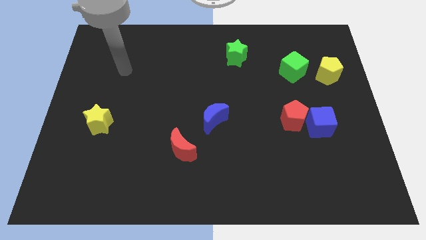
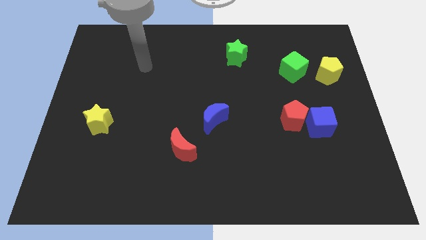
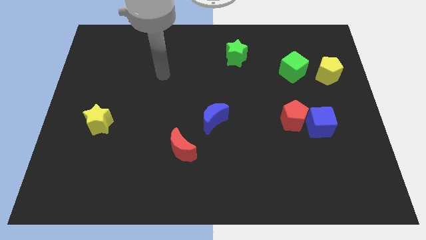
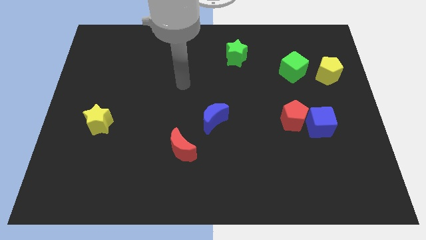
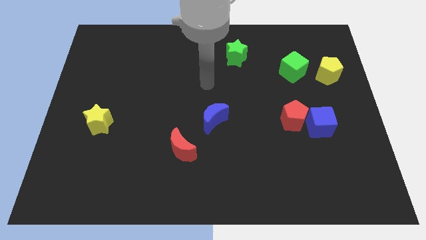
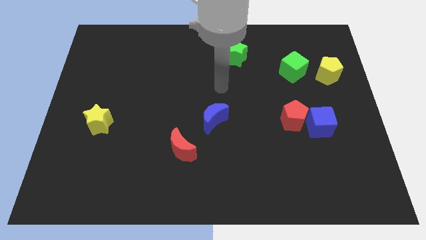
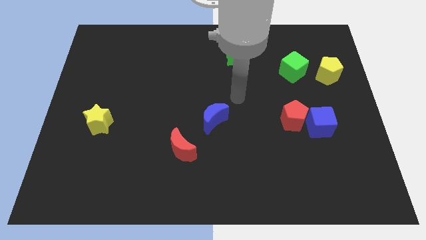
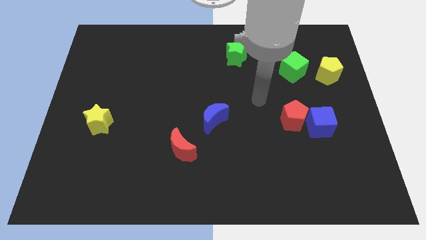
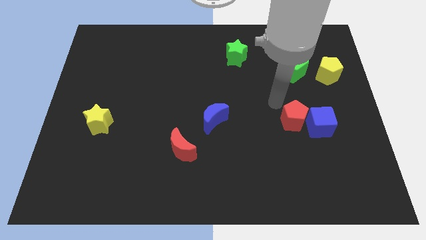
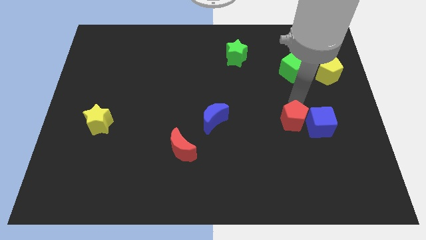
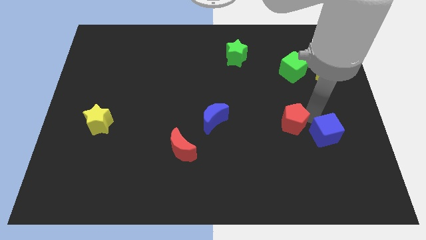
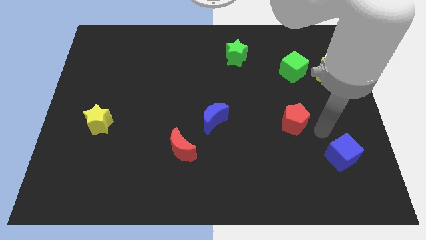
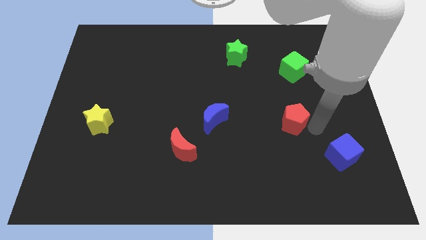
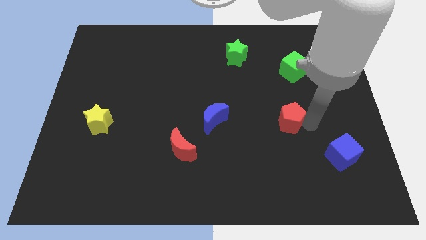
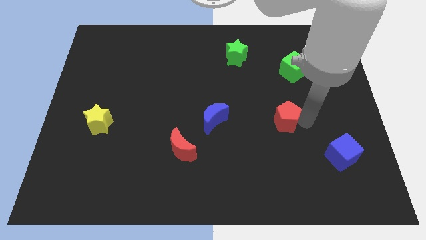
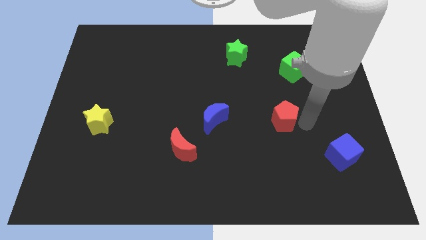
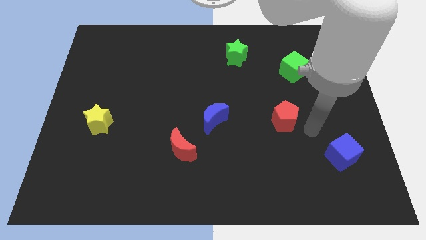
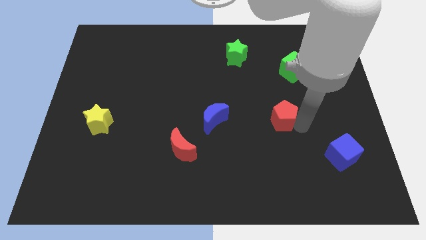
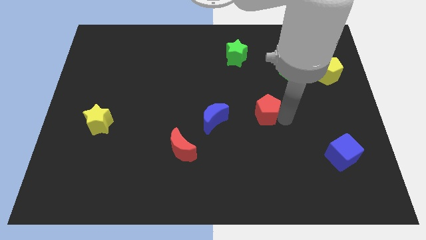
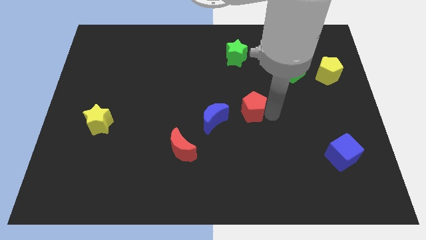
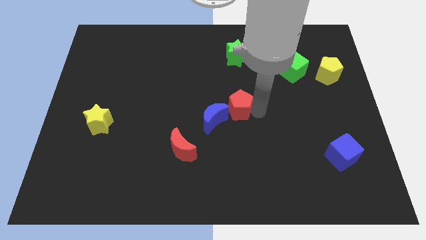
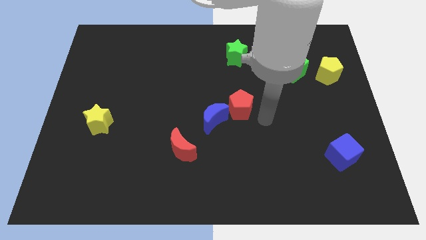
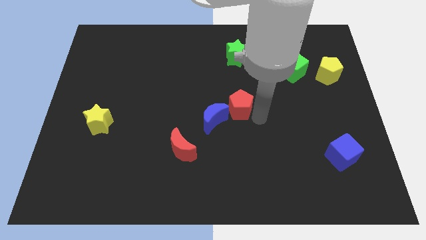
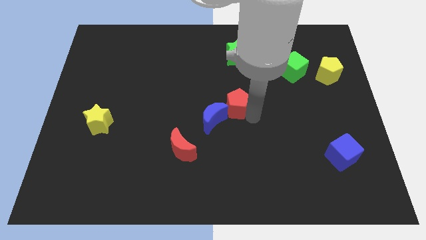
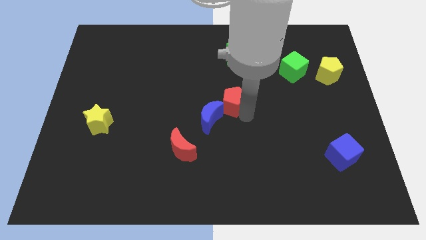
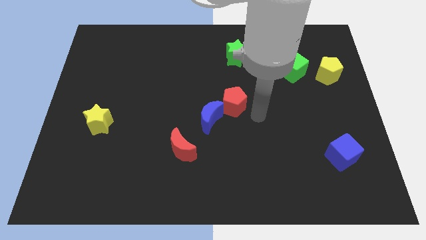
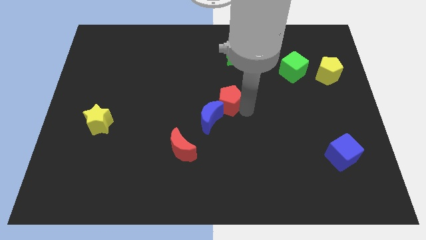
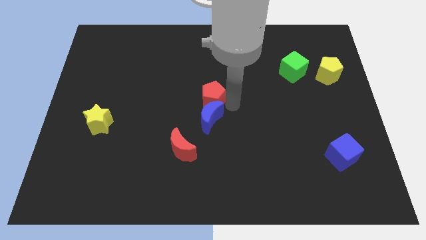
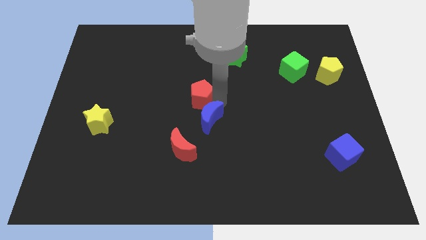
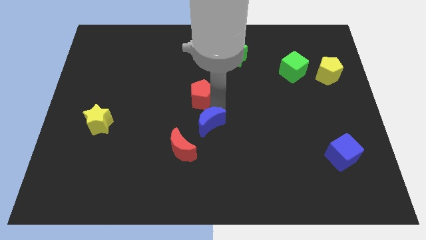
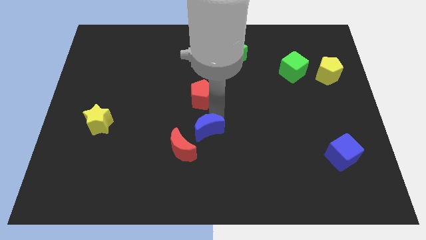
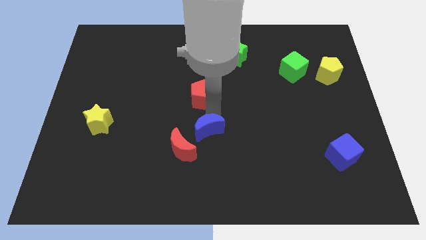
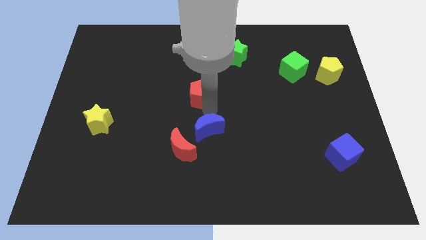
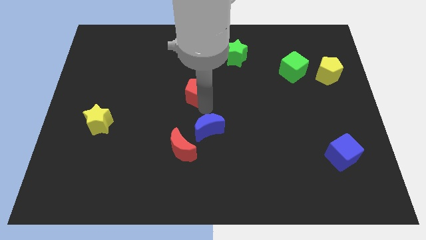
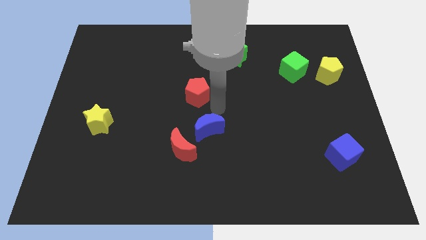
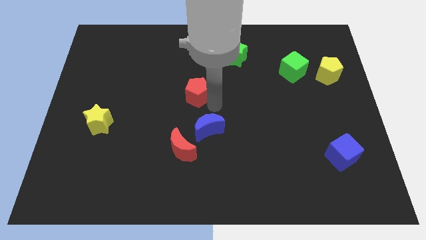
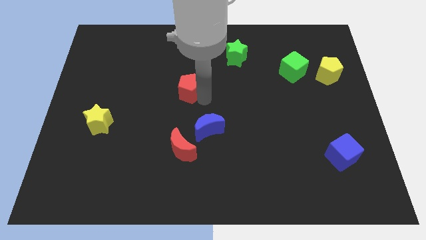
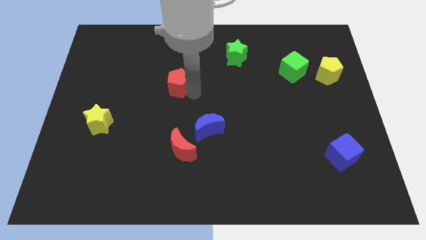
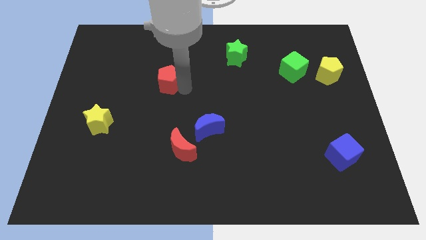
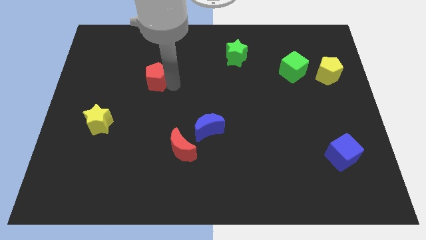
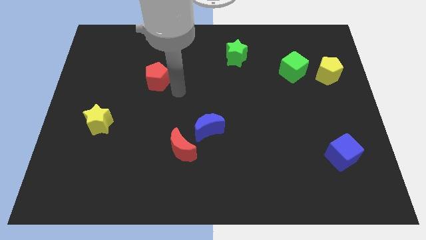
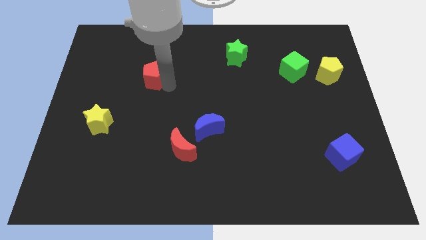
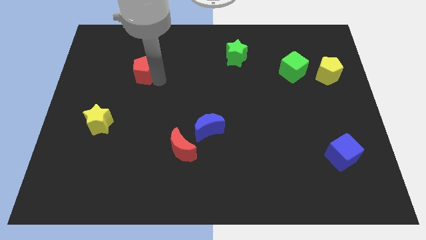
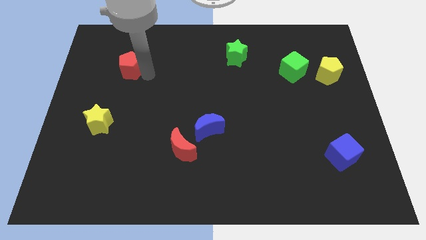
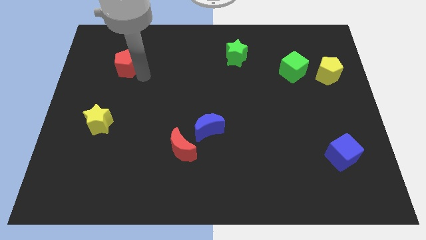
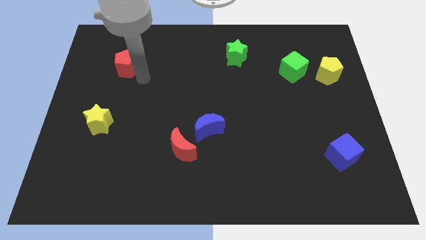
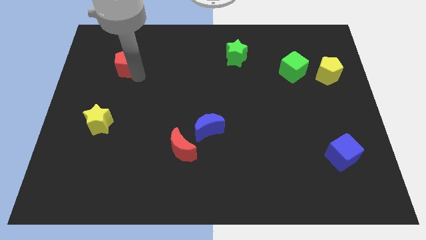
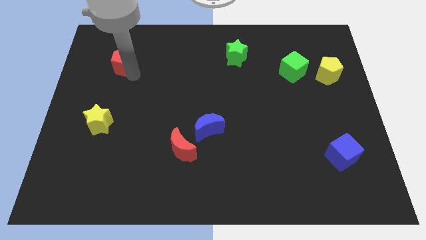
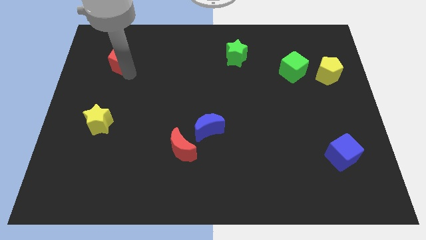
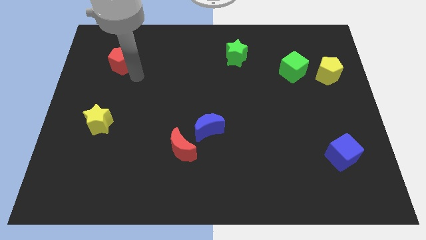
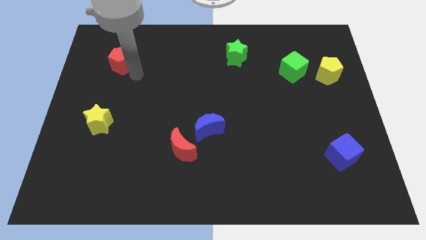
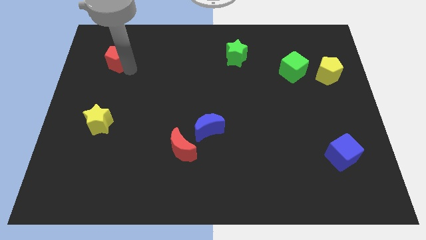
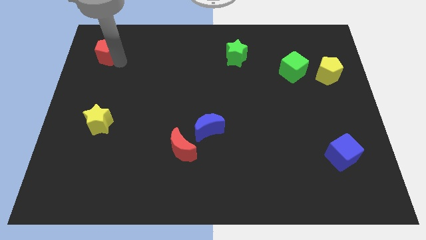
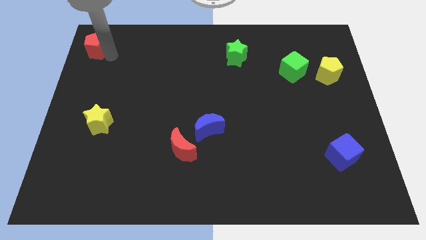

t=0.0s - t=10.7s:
slide the red pentagon to the top left corner

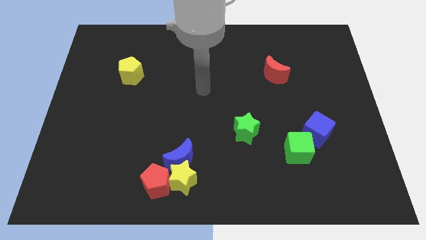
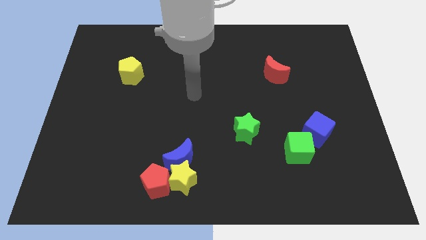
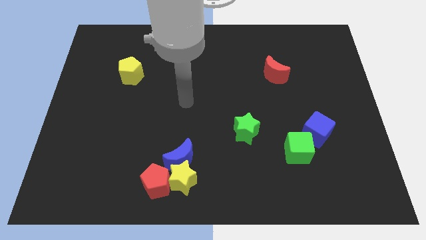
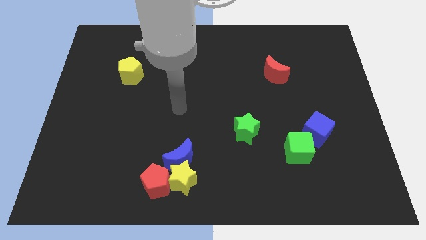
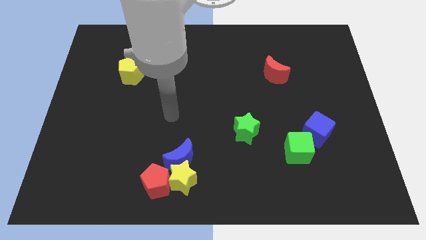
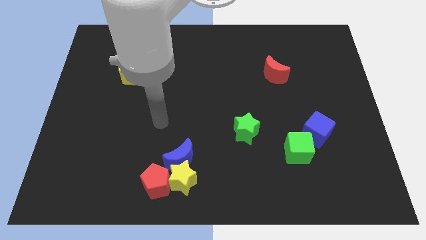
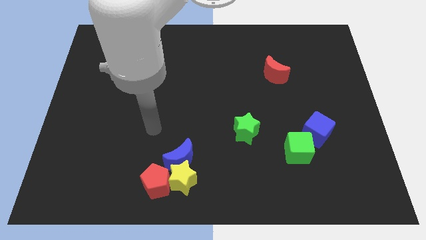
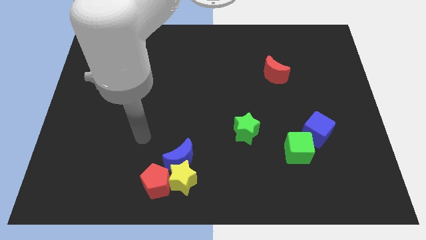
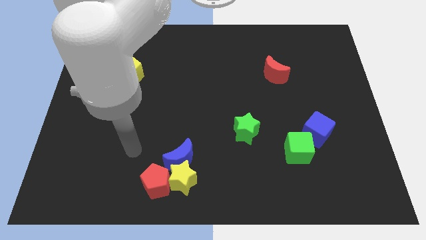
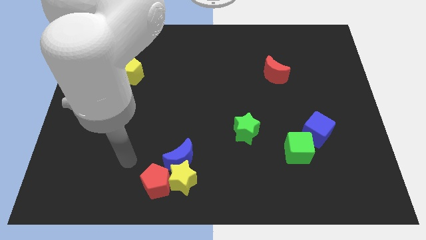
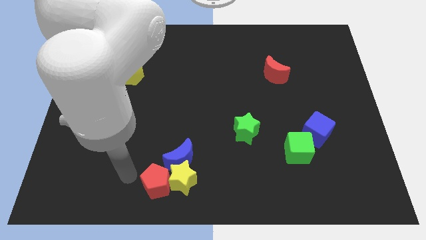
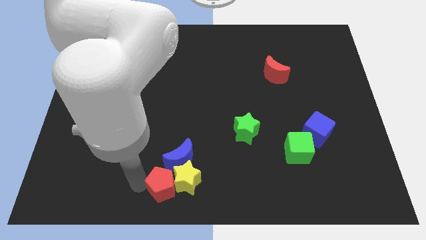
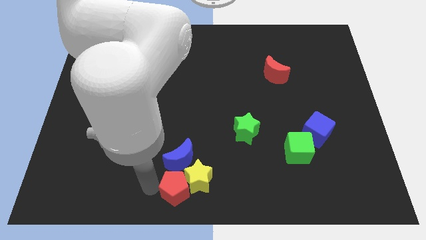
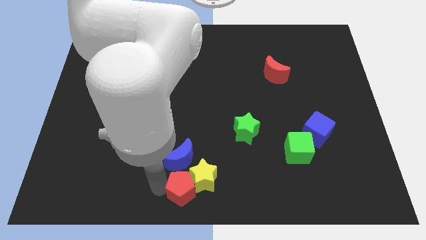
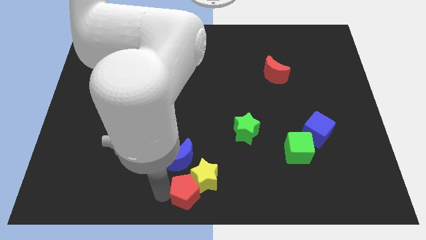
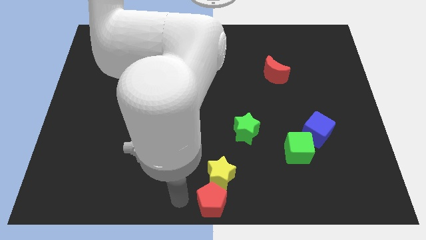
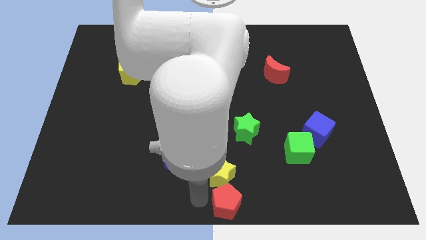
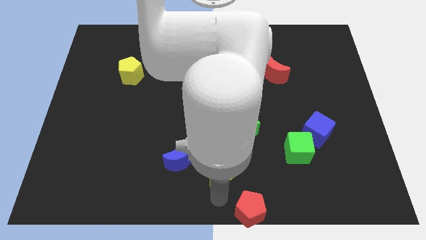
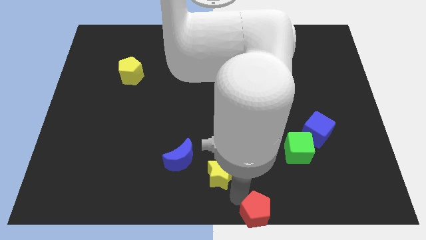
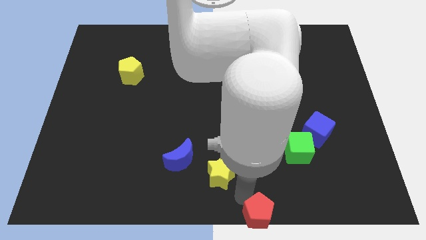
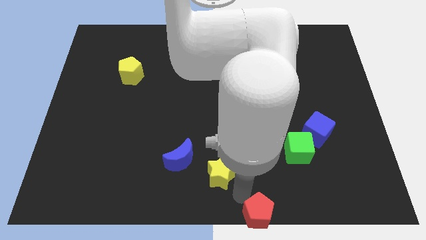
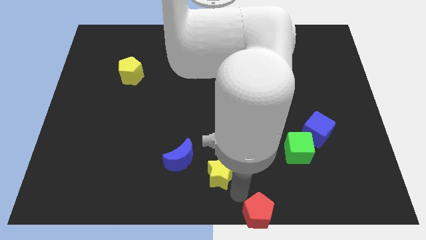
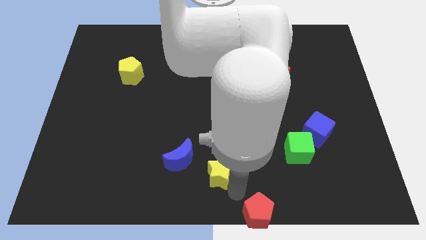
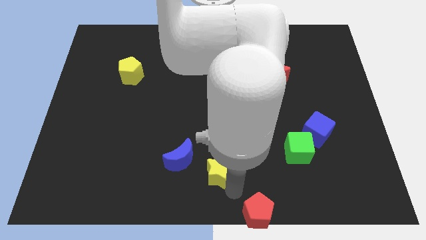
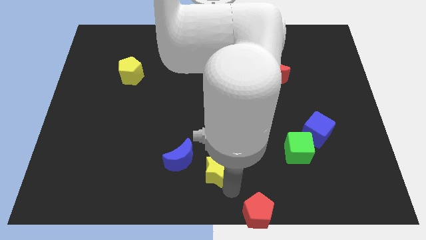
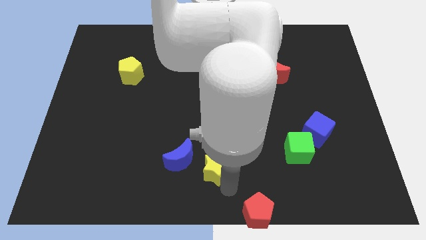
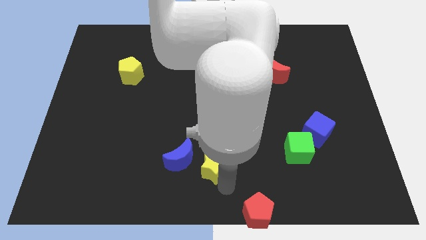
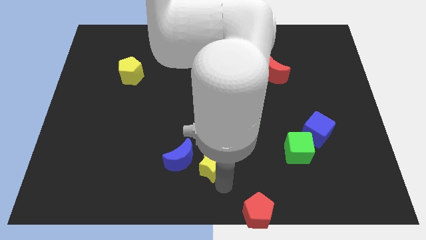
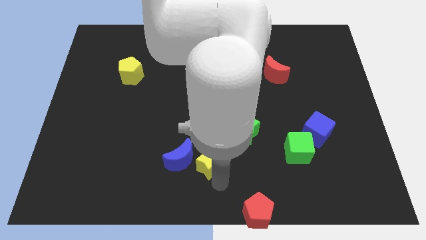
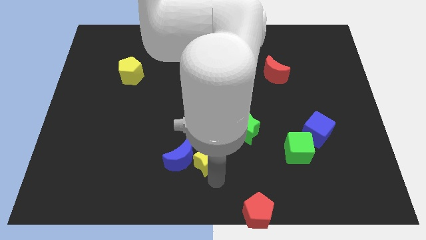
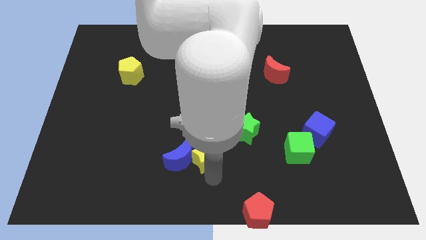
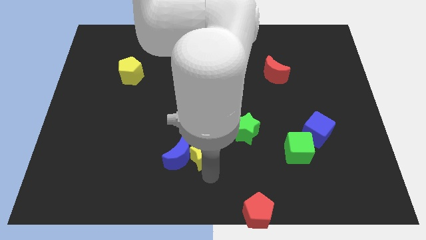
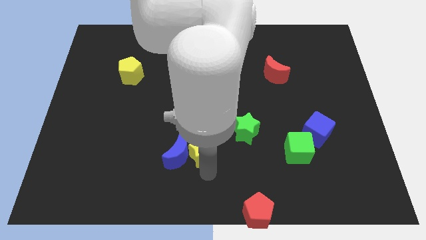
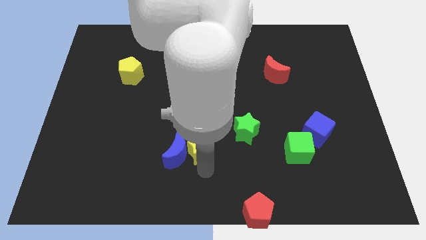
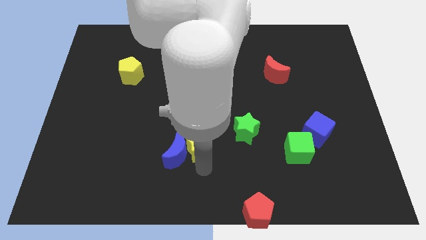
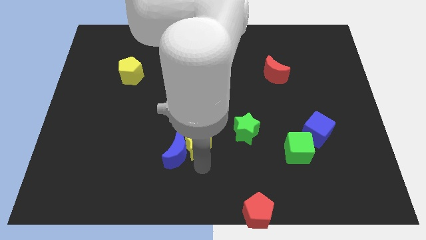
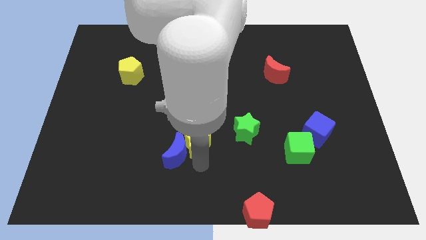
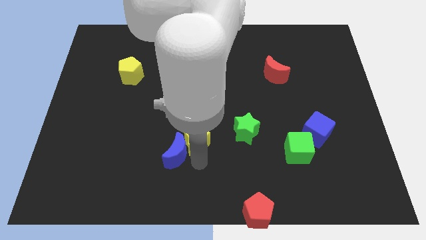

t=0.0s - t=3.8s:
move the yellow star to the center
